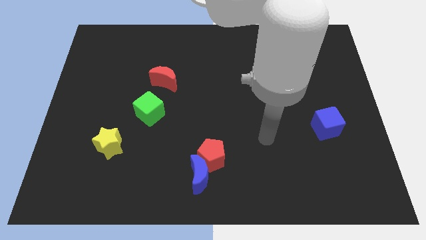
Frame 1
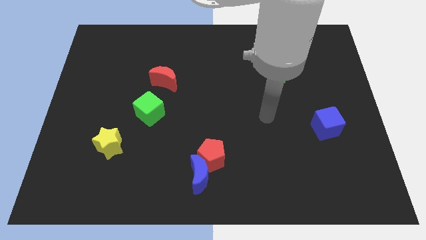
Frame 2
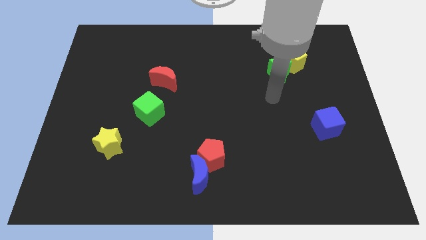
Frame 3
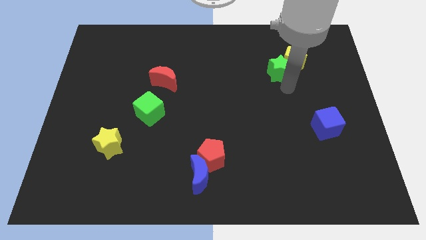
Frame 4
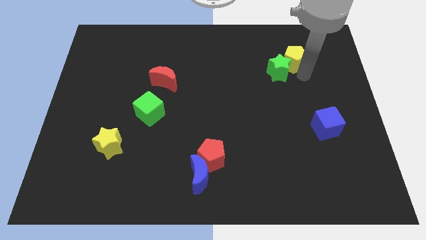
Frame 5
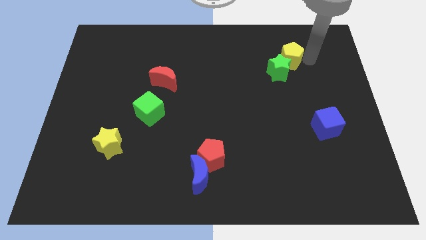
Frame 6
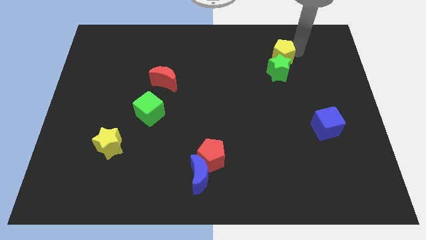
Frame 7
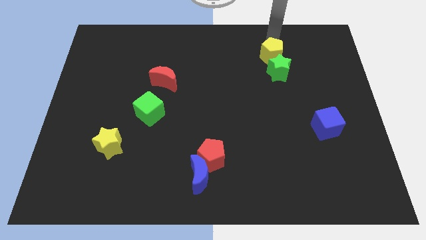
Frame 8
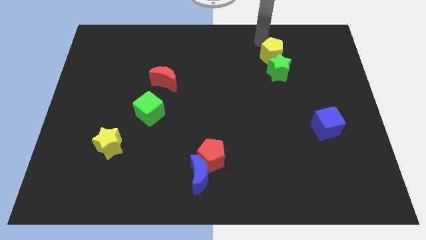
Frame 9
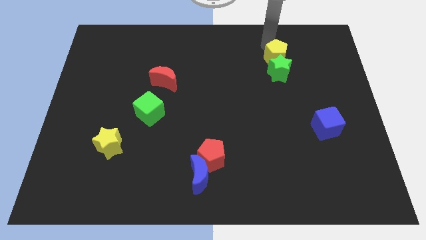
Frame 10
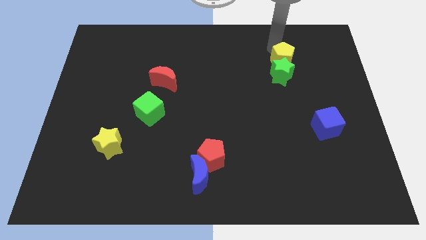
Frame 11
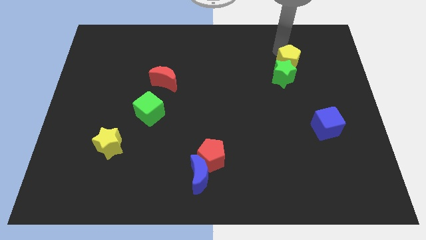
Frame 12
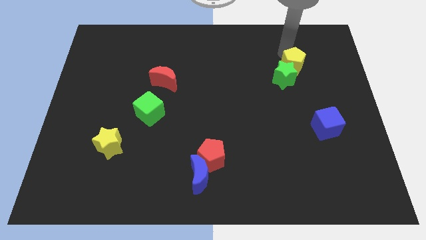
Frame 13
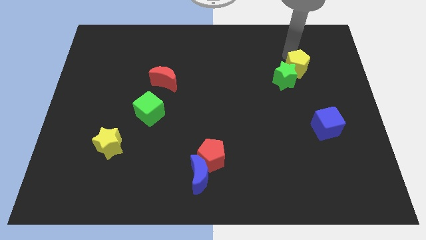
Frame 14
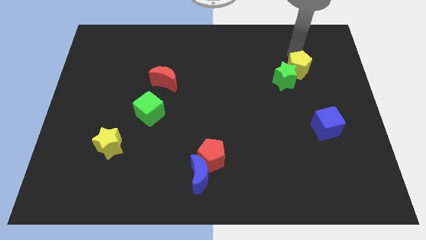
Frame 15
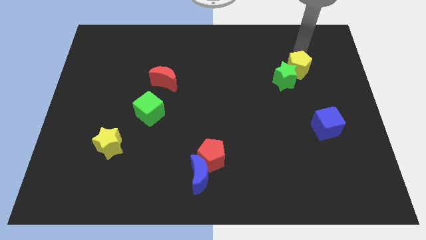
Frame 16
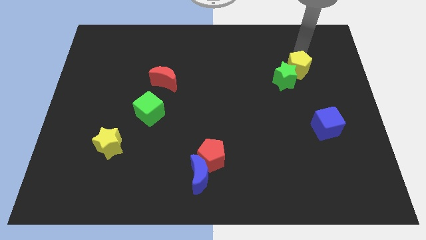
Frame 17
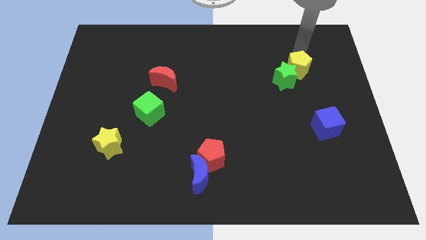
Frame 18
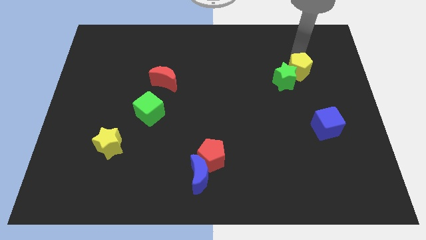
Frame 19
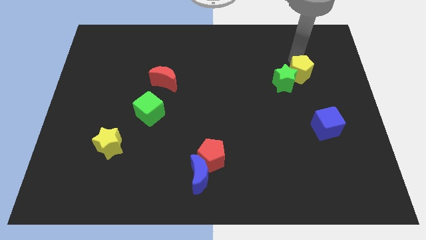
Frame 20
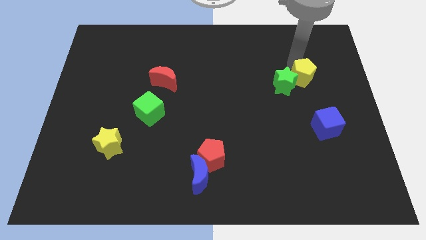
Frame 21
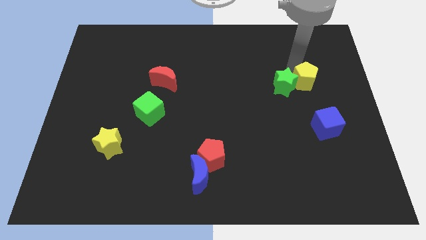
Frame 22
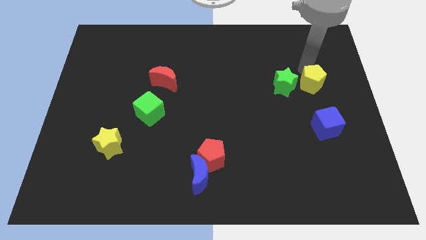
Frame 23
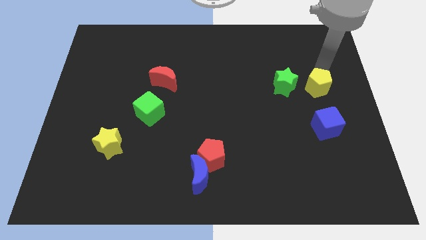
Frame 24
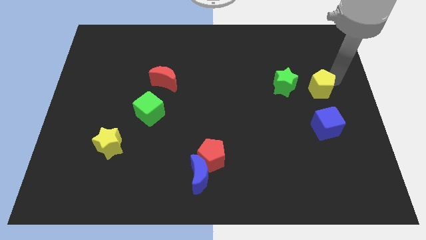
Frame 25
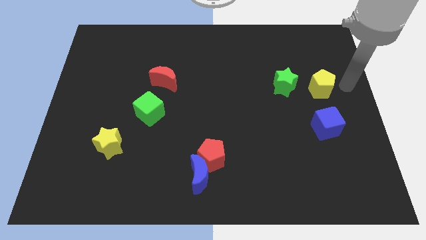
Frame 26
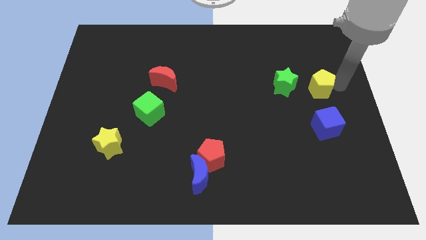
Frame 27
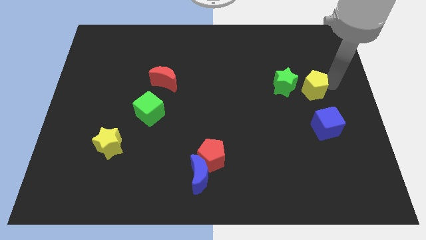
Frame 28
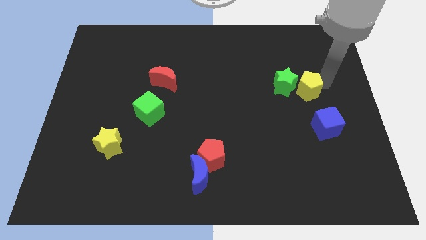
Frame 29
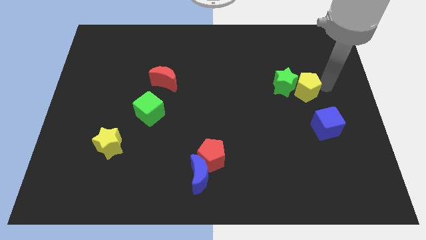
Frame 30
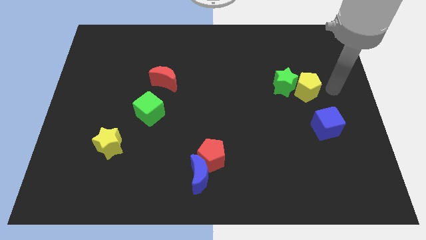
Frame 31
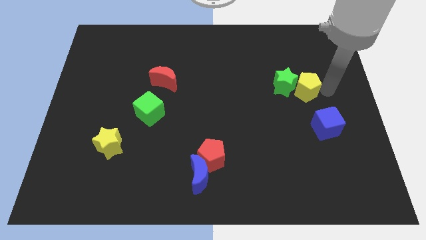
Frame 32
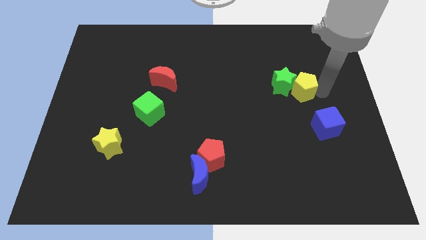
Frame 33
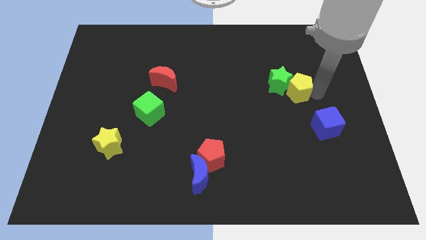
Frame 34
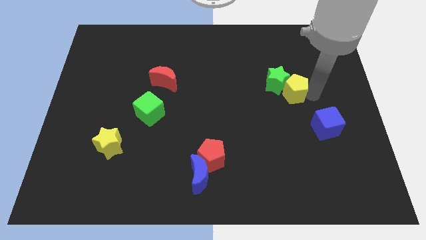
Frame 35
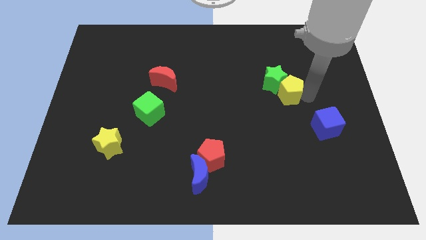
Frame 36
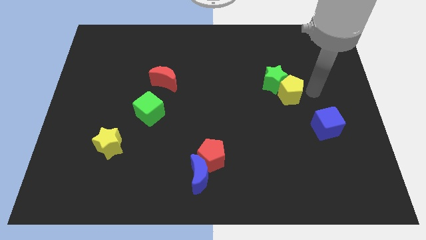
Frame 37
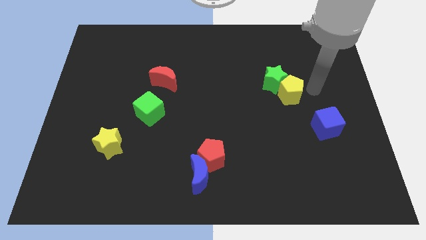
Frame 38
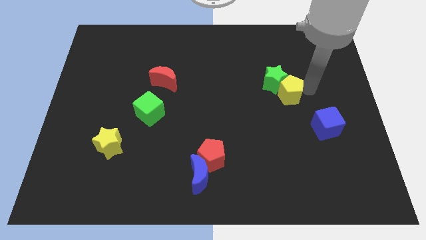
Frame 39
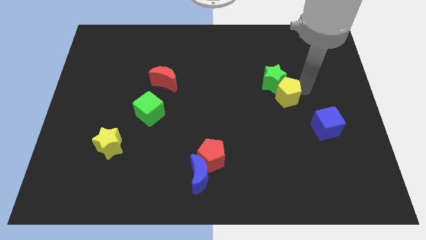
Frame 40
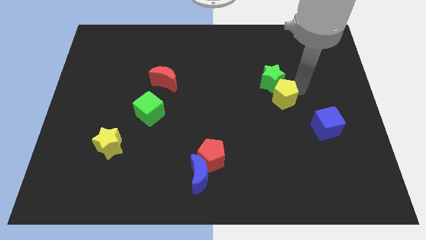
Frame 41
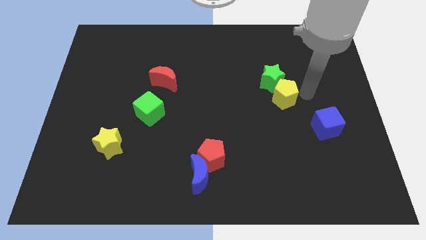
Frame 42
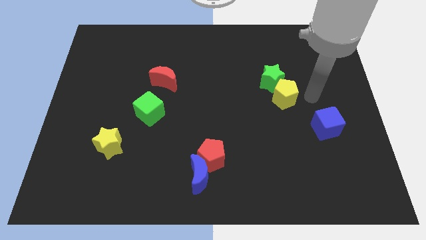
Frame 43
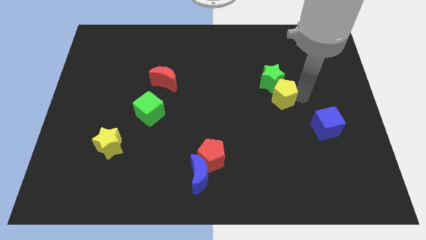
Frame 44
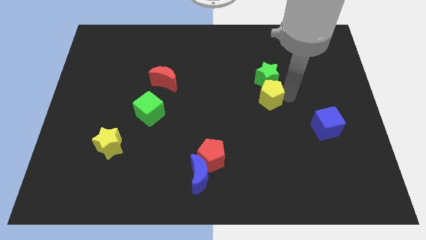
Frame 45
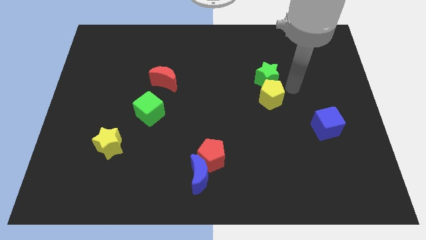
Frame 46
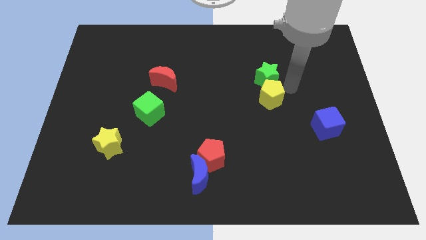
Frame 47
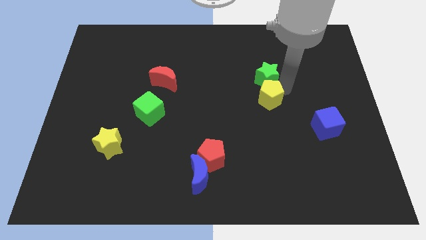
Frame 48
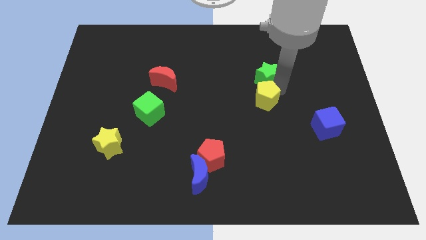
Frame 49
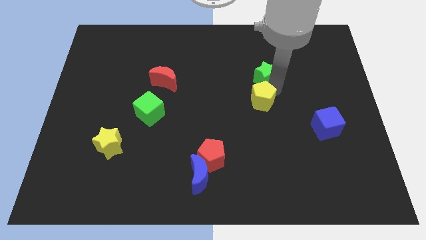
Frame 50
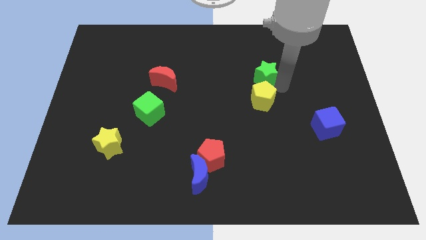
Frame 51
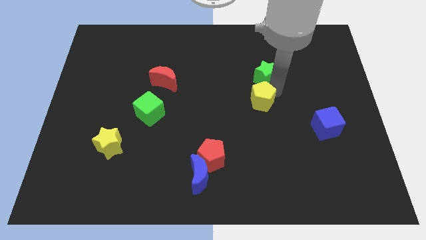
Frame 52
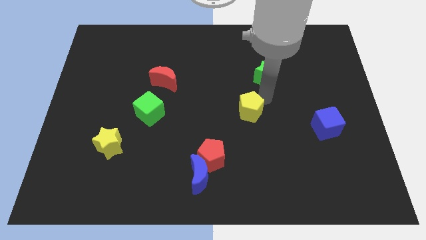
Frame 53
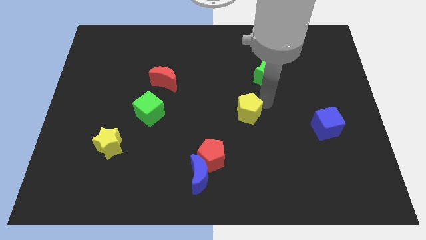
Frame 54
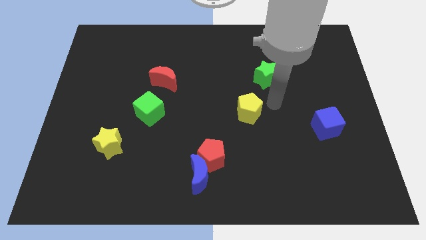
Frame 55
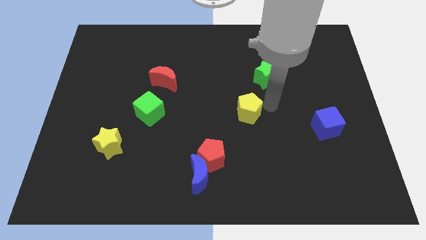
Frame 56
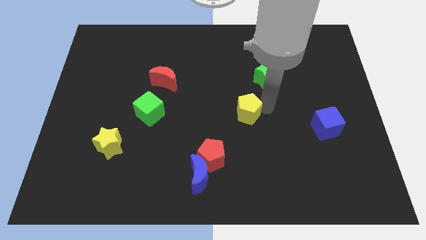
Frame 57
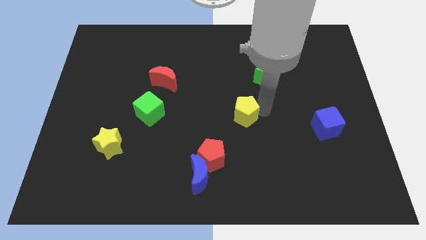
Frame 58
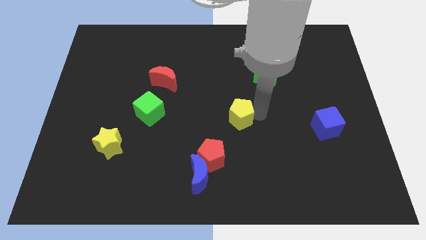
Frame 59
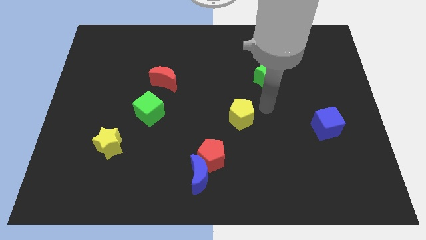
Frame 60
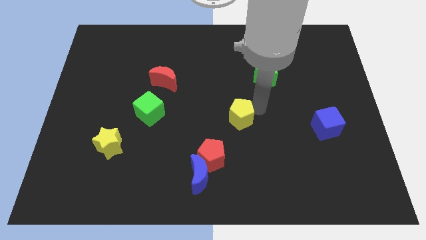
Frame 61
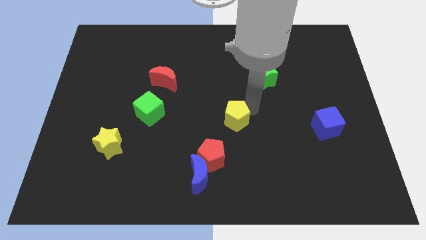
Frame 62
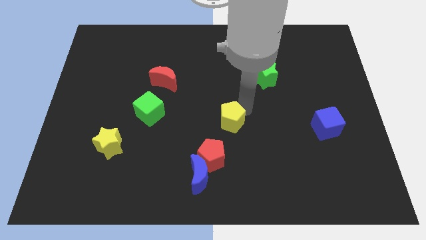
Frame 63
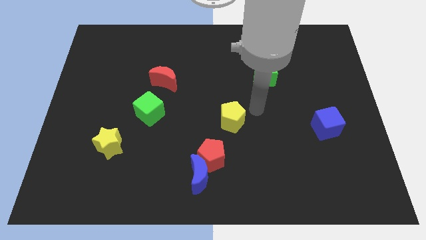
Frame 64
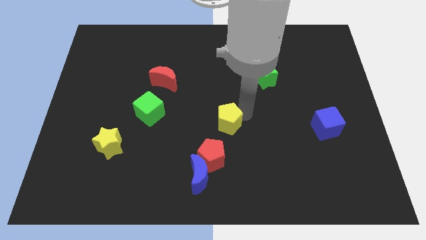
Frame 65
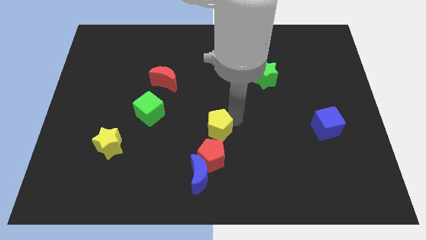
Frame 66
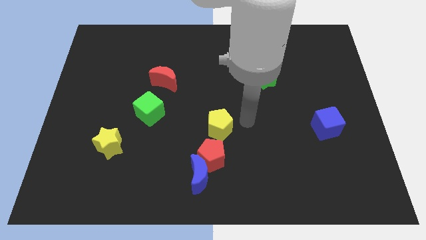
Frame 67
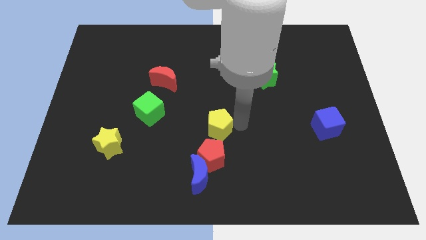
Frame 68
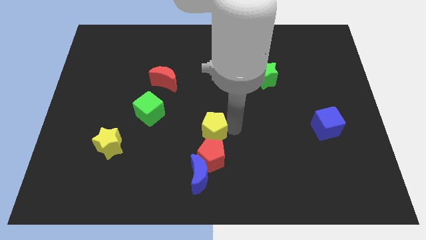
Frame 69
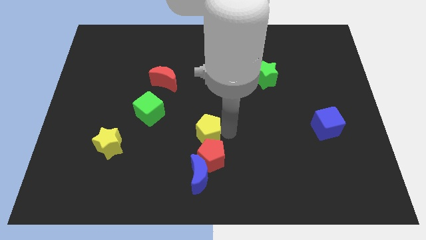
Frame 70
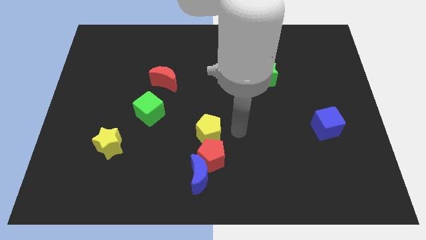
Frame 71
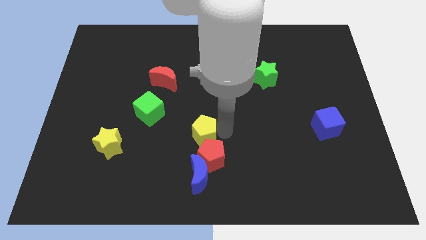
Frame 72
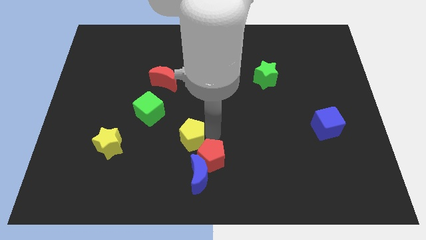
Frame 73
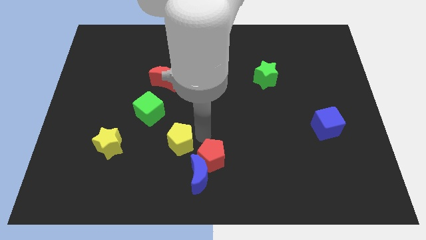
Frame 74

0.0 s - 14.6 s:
put the yellow pentagon to the right side of the yellow star
